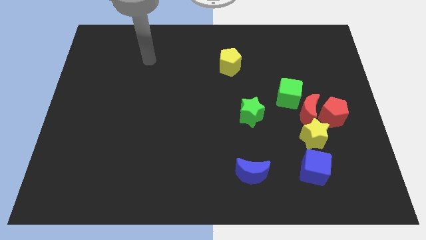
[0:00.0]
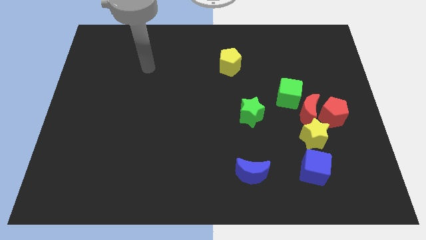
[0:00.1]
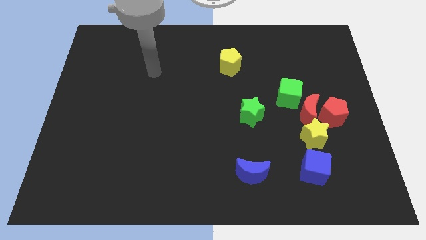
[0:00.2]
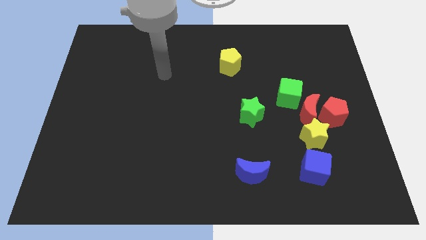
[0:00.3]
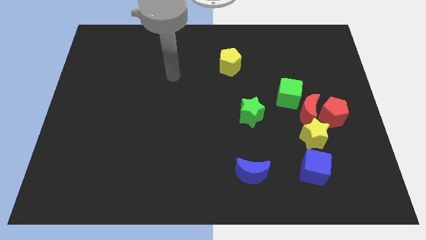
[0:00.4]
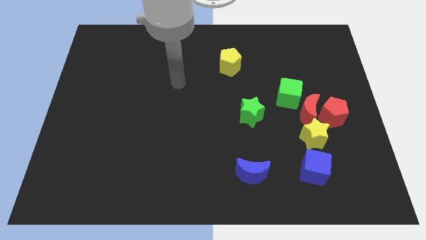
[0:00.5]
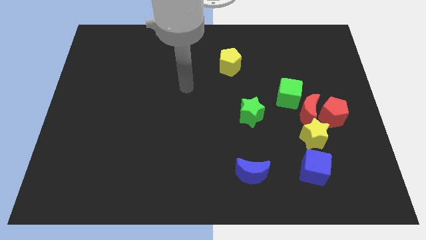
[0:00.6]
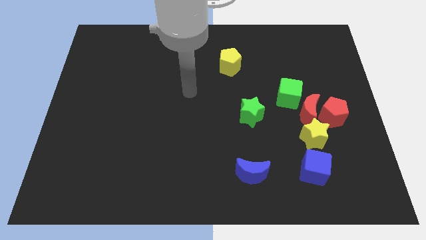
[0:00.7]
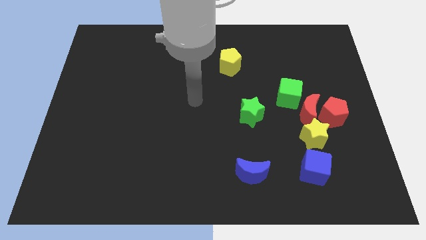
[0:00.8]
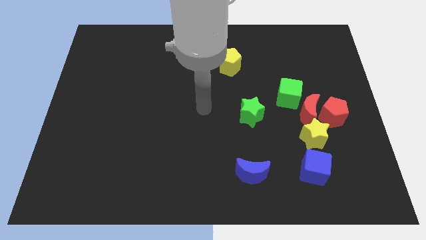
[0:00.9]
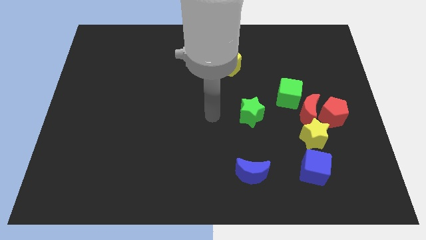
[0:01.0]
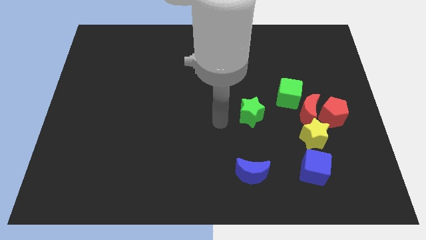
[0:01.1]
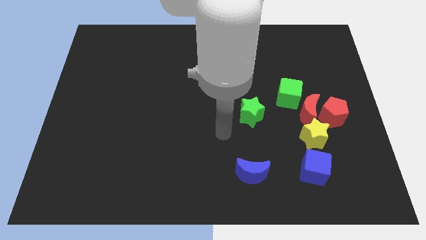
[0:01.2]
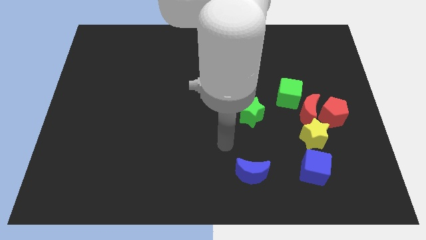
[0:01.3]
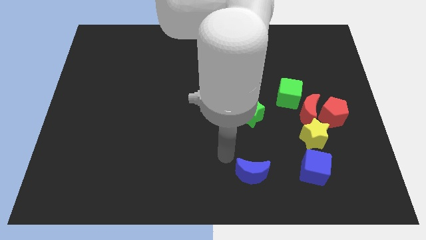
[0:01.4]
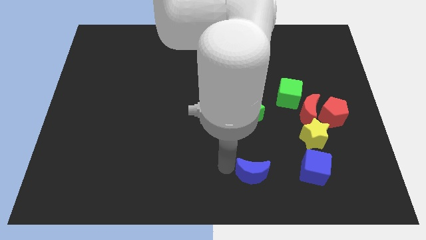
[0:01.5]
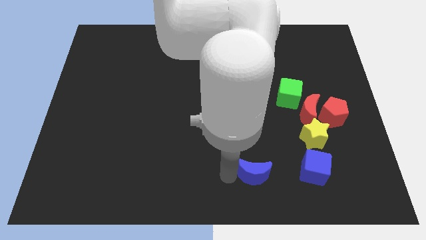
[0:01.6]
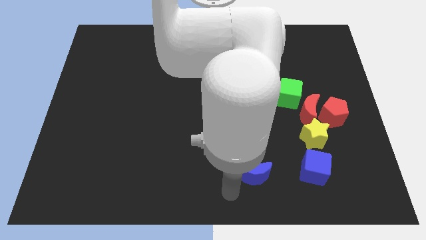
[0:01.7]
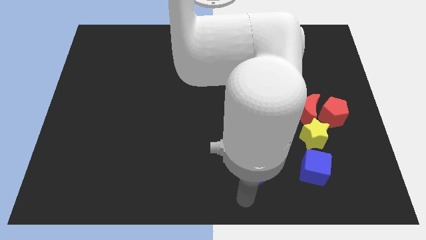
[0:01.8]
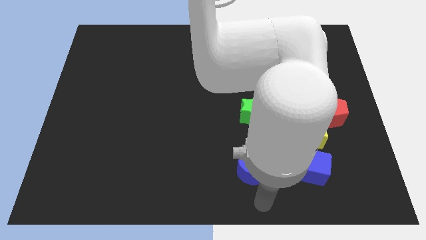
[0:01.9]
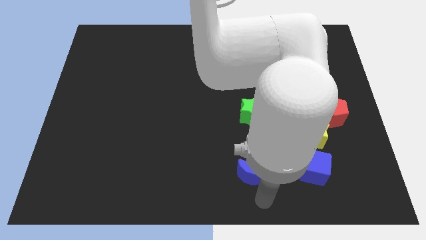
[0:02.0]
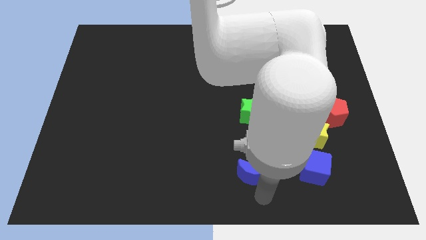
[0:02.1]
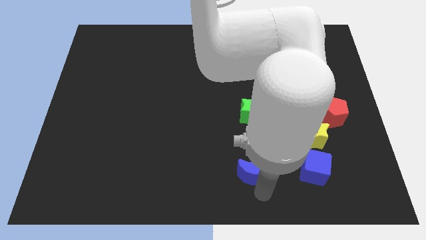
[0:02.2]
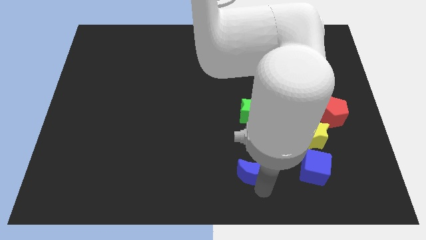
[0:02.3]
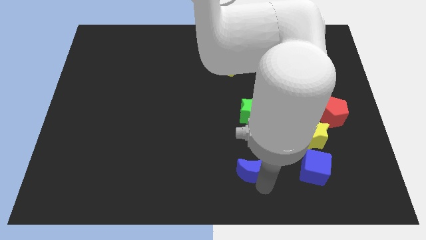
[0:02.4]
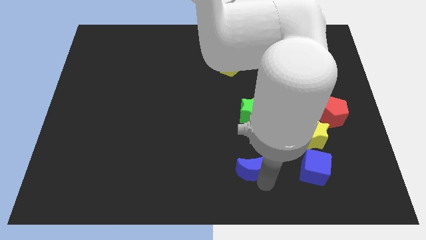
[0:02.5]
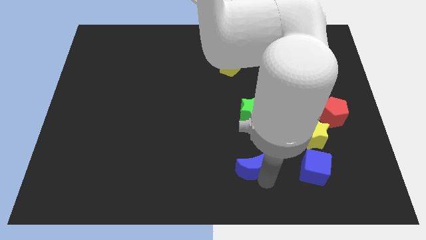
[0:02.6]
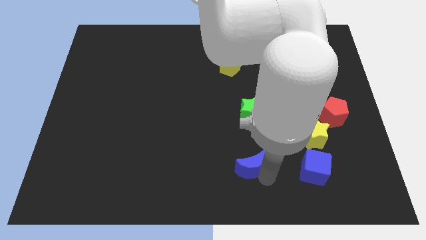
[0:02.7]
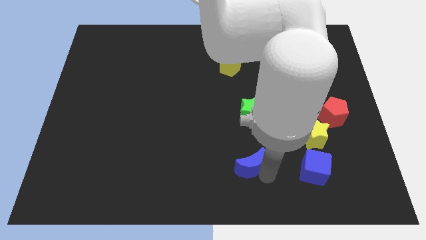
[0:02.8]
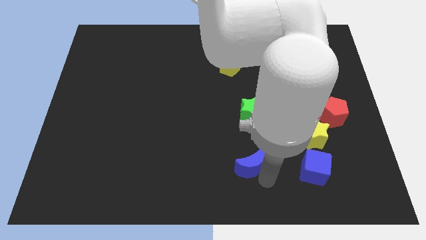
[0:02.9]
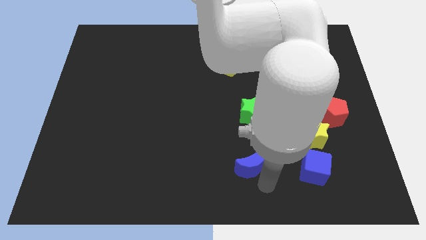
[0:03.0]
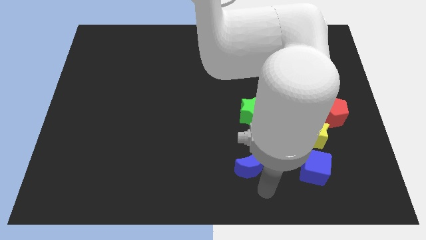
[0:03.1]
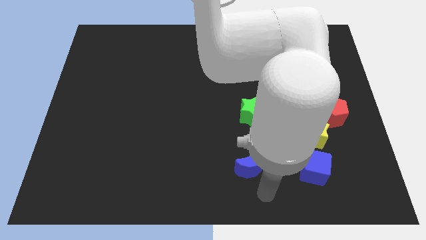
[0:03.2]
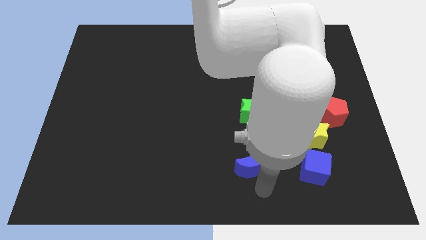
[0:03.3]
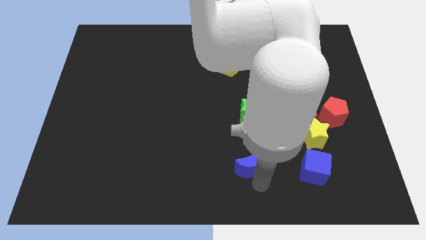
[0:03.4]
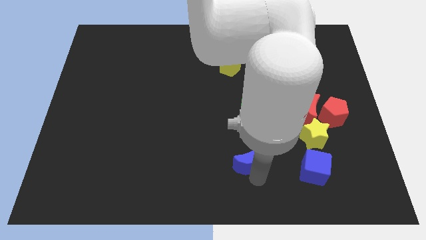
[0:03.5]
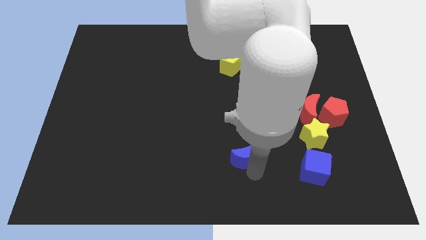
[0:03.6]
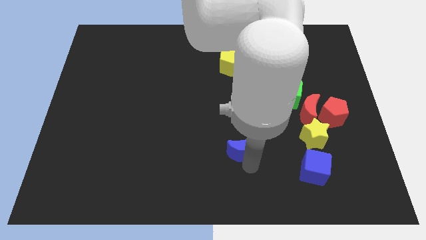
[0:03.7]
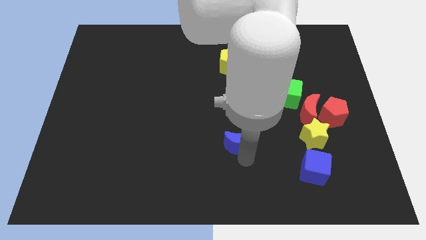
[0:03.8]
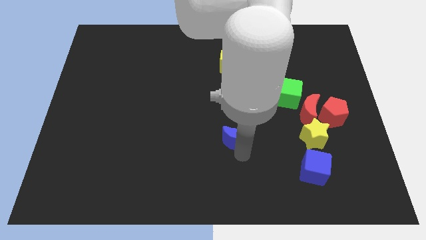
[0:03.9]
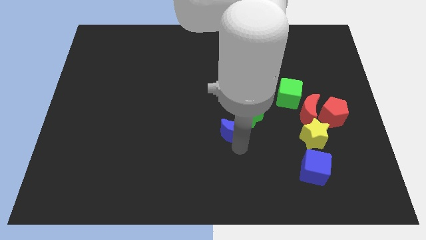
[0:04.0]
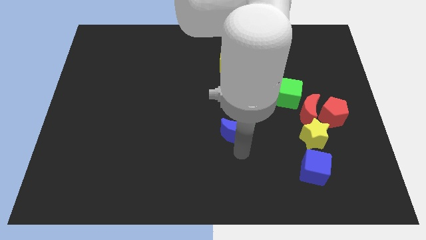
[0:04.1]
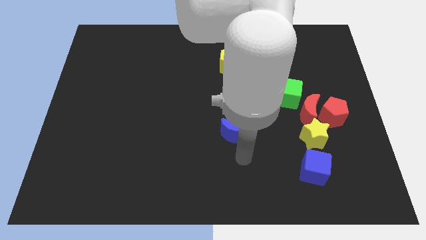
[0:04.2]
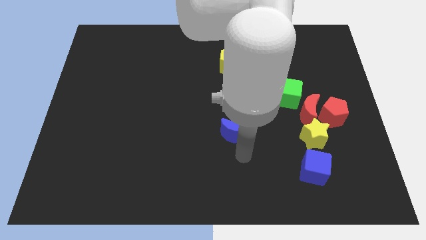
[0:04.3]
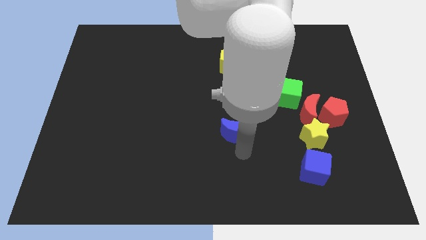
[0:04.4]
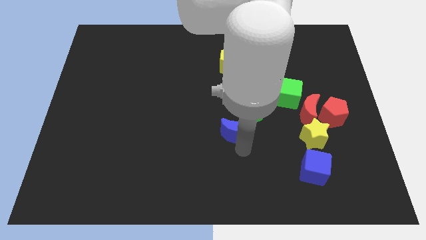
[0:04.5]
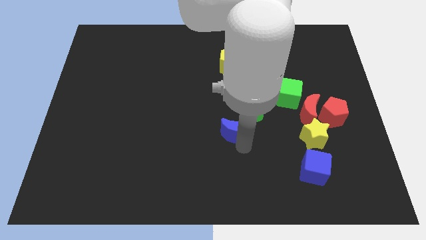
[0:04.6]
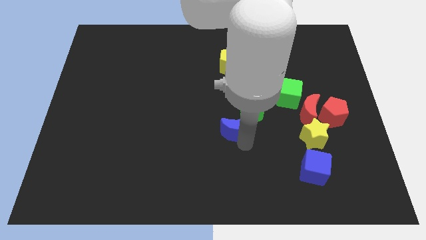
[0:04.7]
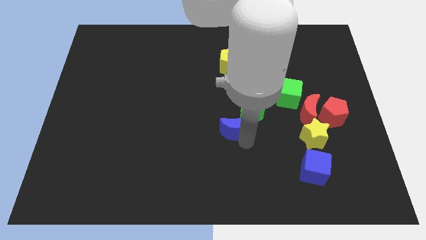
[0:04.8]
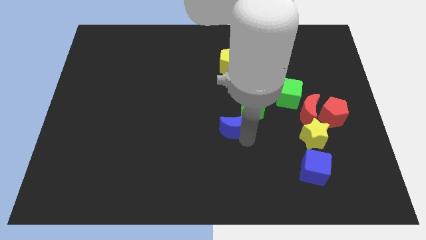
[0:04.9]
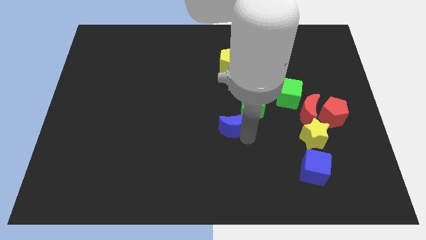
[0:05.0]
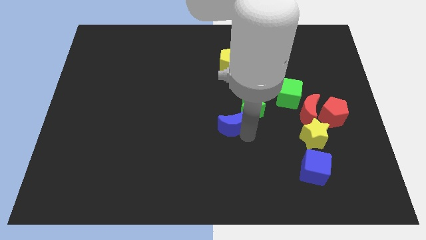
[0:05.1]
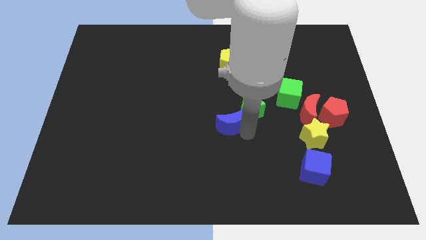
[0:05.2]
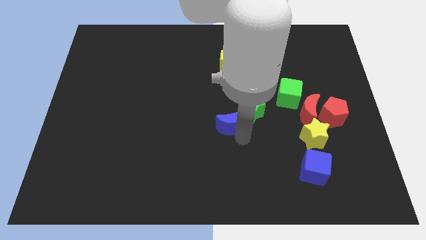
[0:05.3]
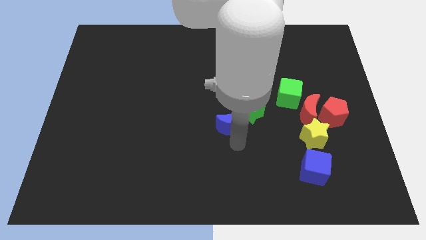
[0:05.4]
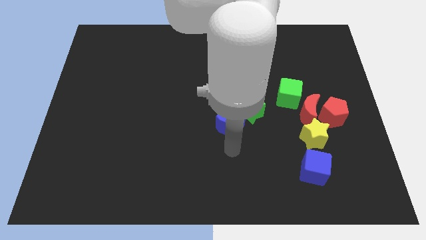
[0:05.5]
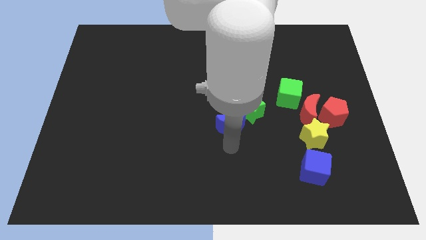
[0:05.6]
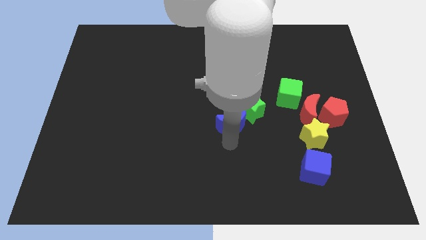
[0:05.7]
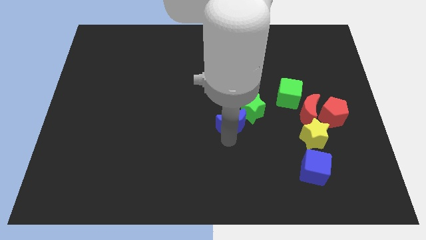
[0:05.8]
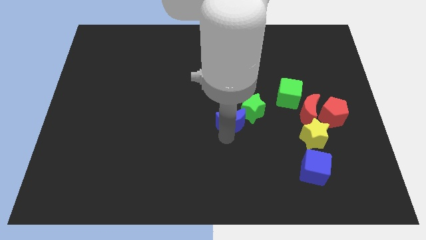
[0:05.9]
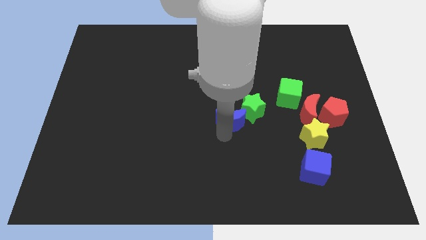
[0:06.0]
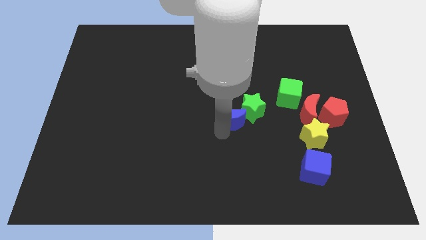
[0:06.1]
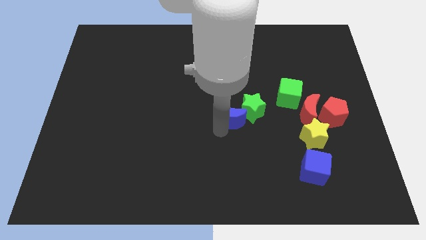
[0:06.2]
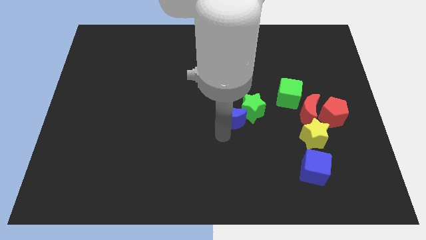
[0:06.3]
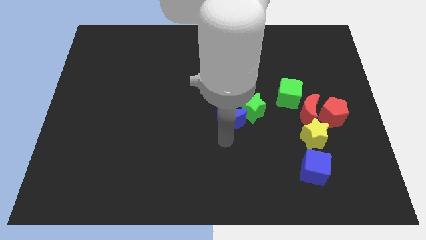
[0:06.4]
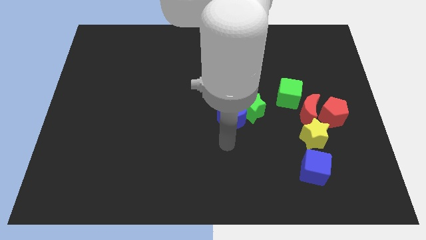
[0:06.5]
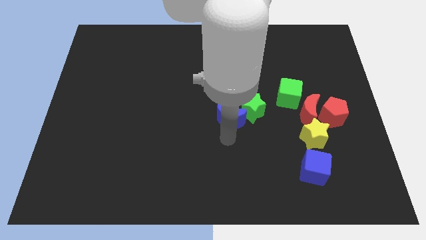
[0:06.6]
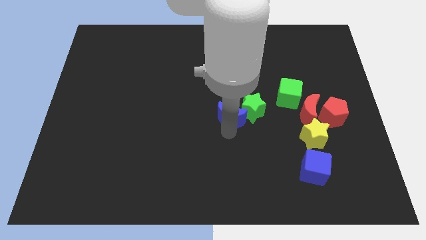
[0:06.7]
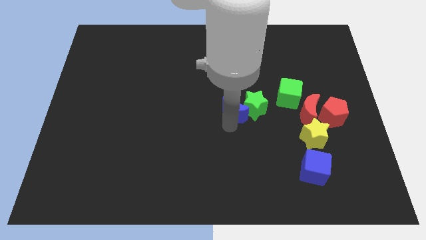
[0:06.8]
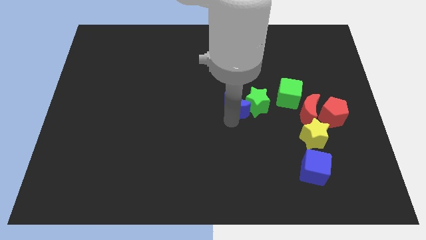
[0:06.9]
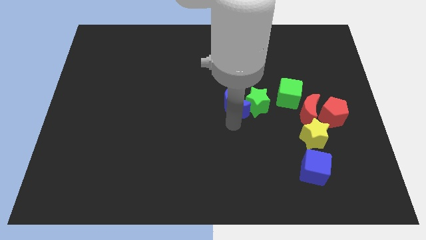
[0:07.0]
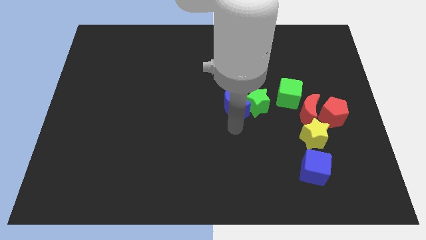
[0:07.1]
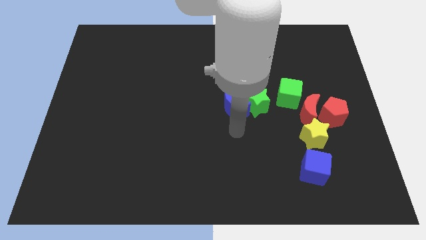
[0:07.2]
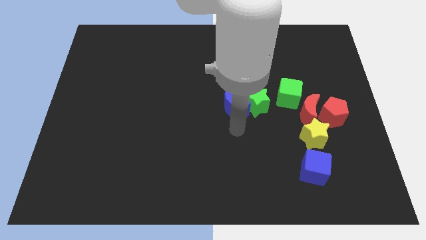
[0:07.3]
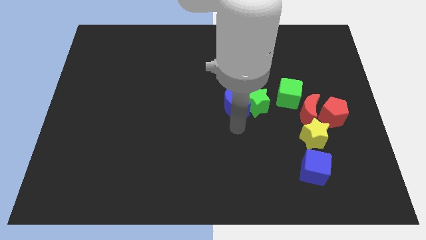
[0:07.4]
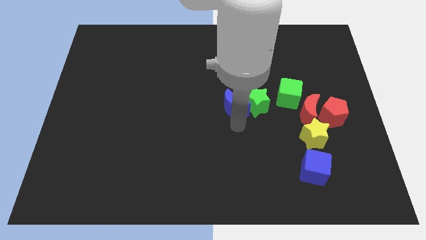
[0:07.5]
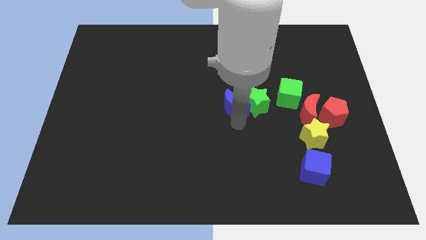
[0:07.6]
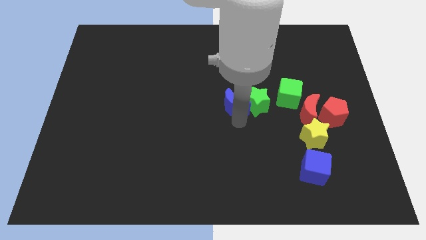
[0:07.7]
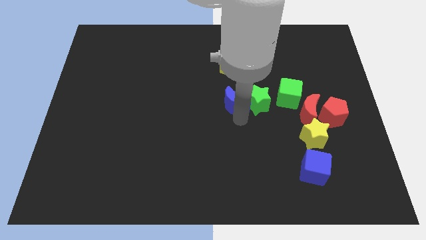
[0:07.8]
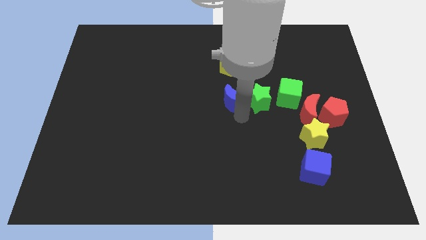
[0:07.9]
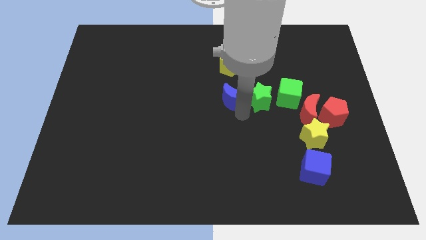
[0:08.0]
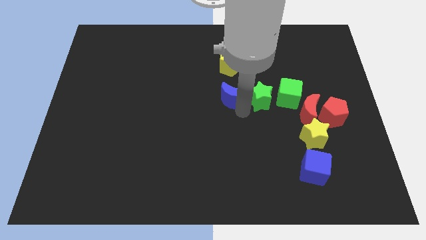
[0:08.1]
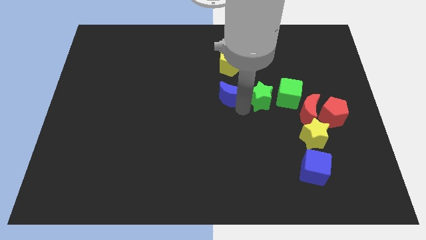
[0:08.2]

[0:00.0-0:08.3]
push the blue moon up
